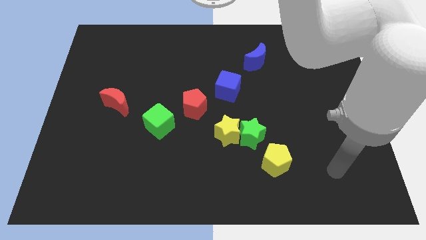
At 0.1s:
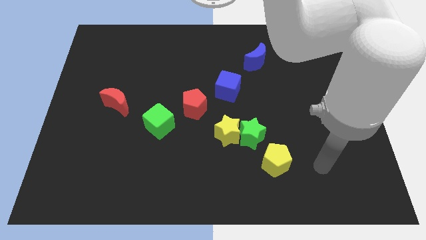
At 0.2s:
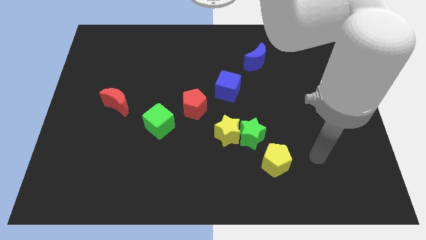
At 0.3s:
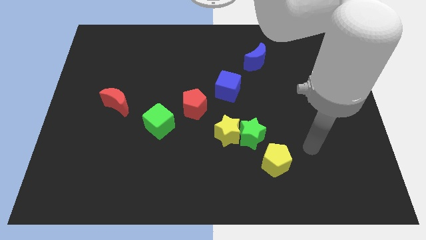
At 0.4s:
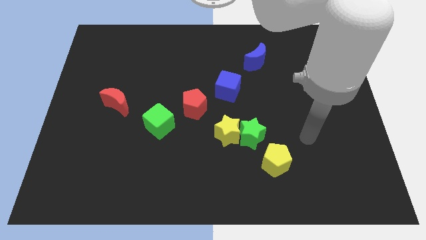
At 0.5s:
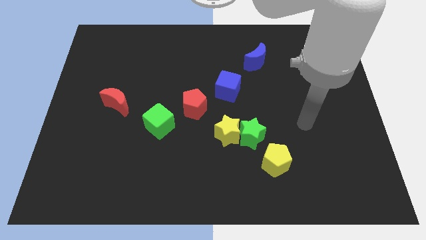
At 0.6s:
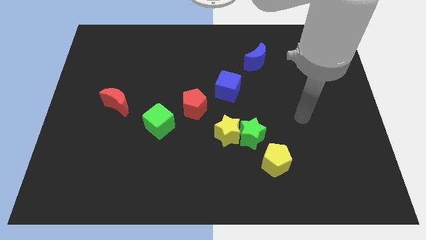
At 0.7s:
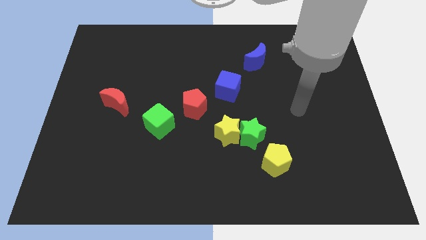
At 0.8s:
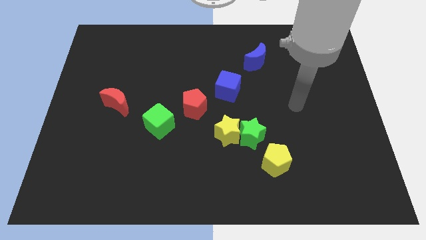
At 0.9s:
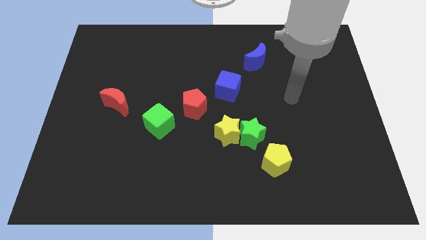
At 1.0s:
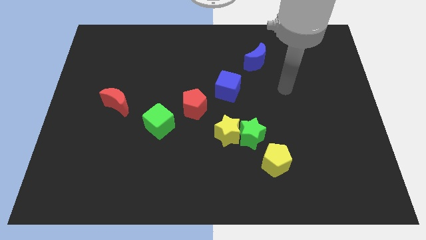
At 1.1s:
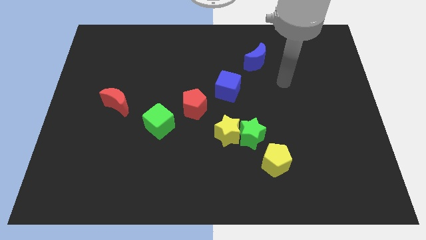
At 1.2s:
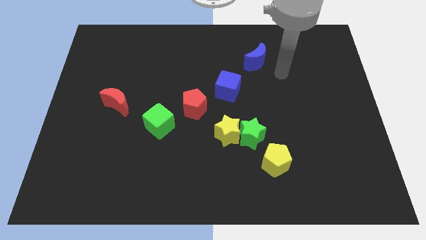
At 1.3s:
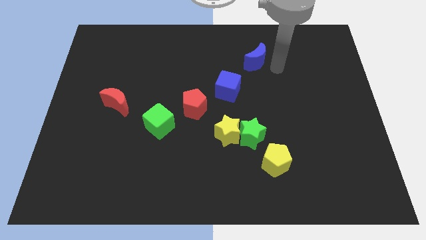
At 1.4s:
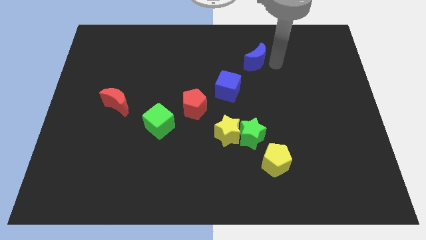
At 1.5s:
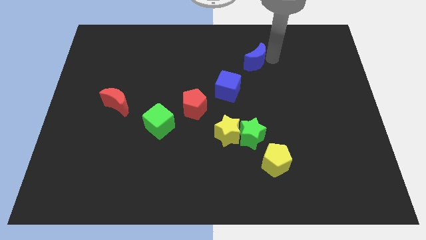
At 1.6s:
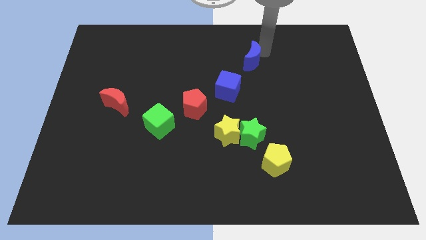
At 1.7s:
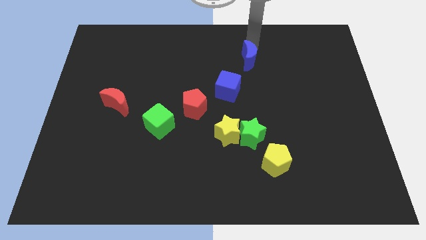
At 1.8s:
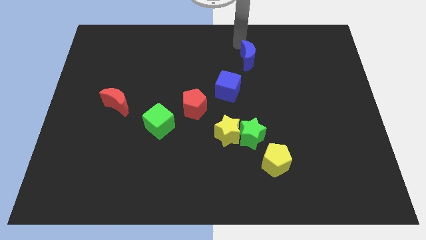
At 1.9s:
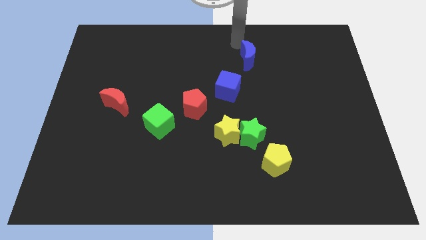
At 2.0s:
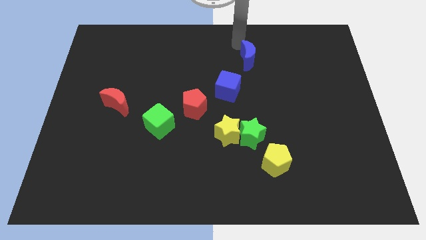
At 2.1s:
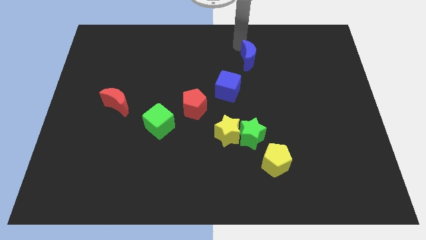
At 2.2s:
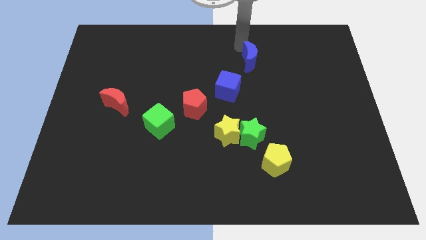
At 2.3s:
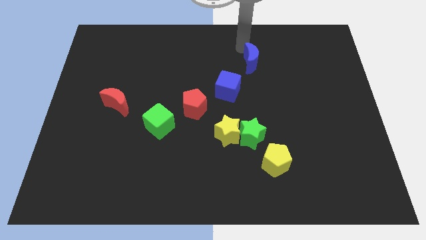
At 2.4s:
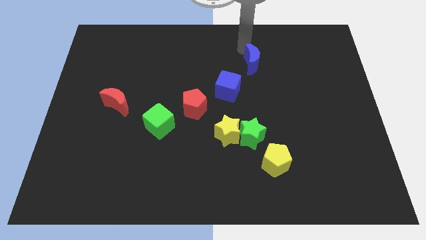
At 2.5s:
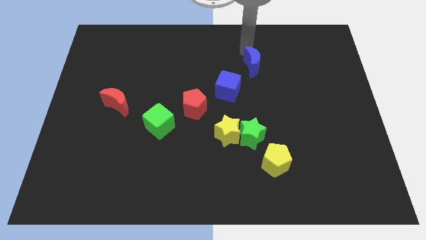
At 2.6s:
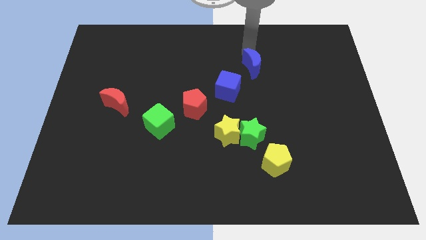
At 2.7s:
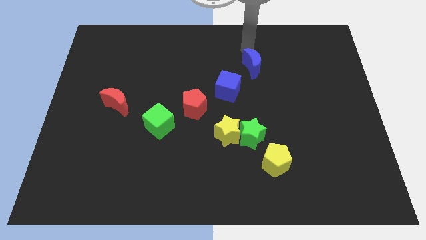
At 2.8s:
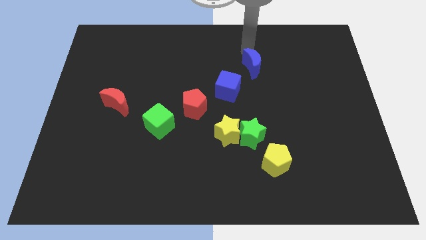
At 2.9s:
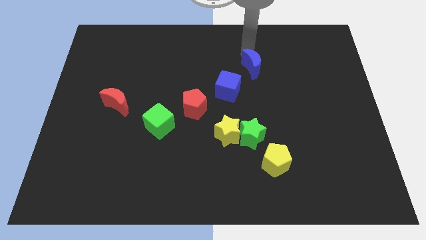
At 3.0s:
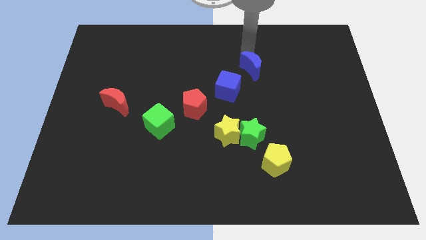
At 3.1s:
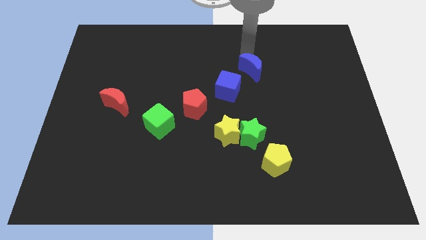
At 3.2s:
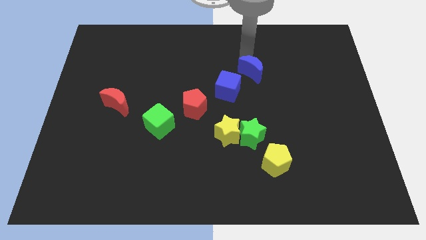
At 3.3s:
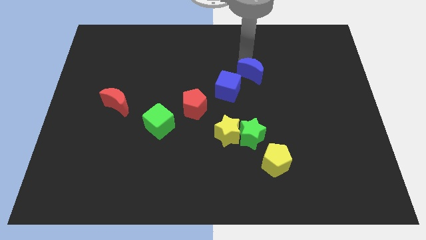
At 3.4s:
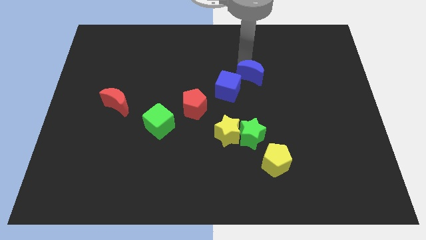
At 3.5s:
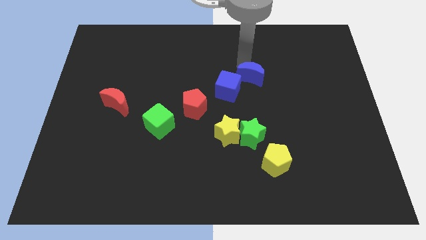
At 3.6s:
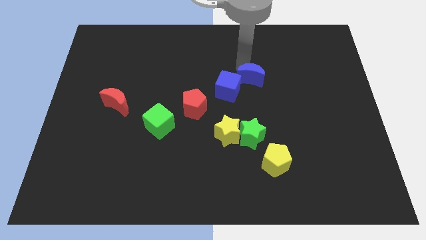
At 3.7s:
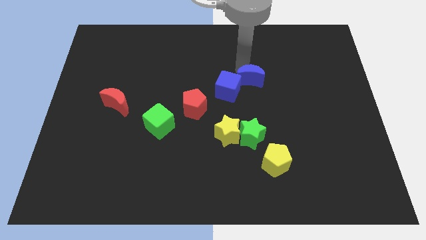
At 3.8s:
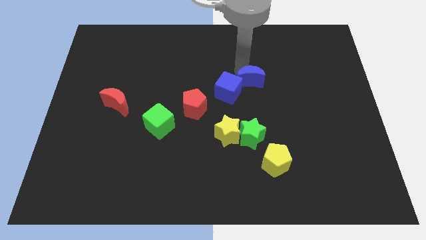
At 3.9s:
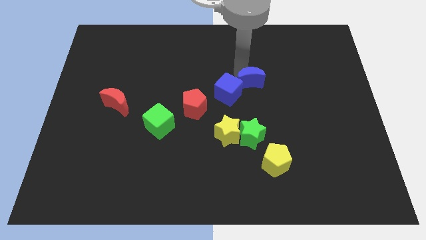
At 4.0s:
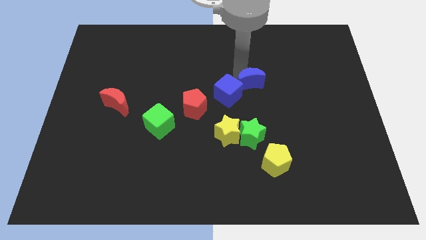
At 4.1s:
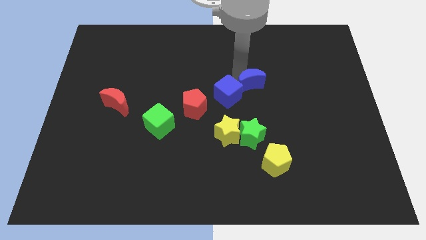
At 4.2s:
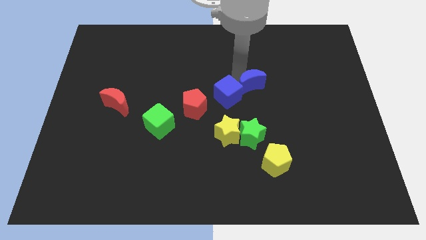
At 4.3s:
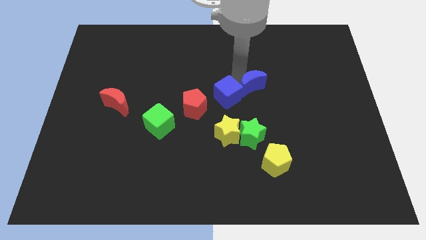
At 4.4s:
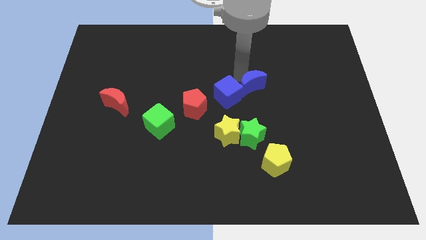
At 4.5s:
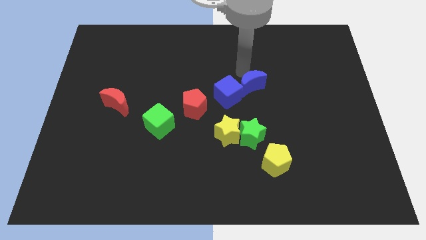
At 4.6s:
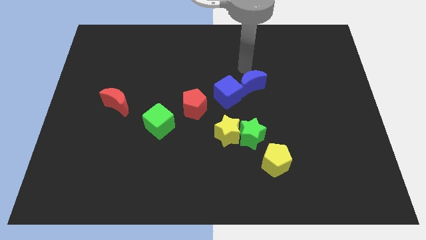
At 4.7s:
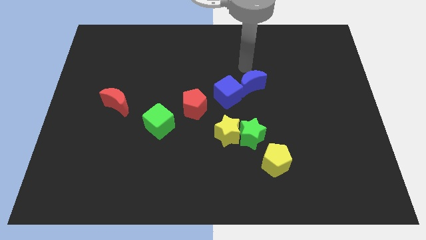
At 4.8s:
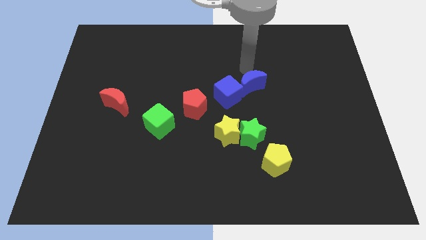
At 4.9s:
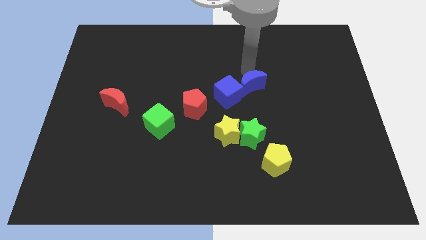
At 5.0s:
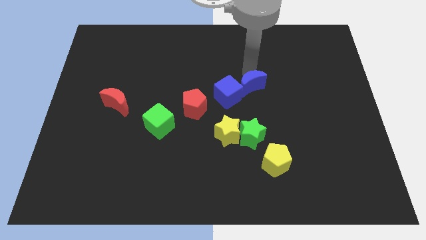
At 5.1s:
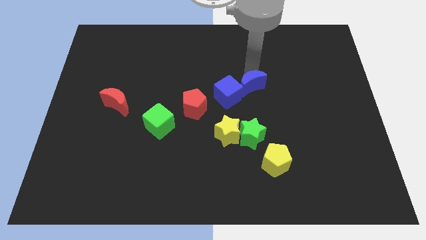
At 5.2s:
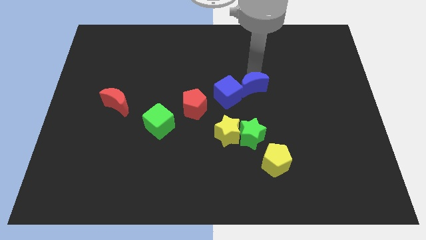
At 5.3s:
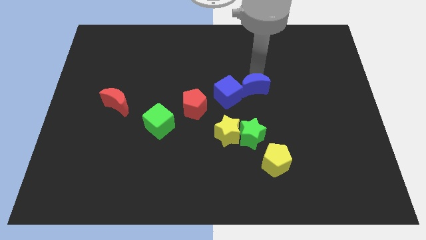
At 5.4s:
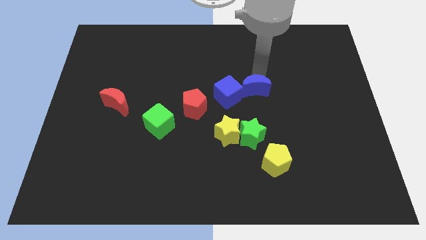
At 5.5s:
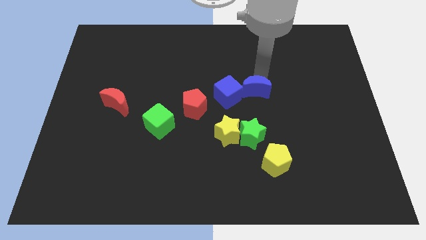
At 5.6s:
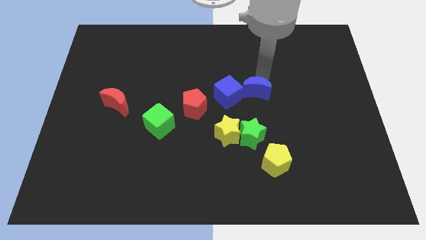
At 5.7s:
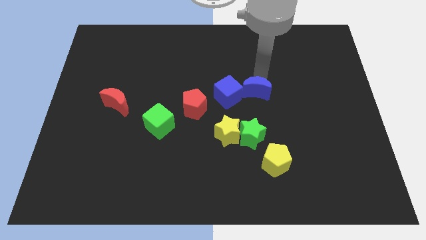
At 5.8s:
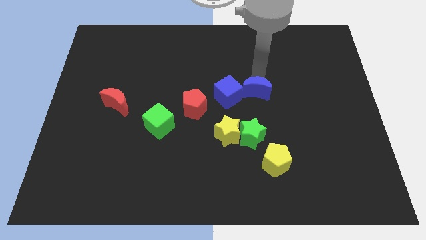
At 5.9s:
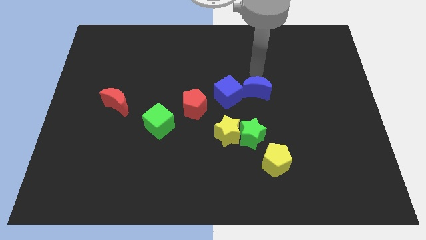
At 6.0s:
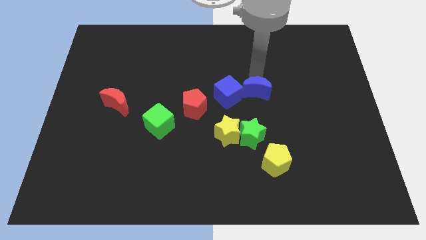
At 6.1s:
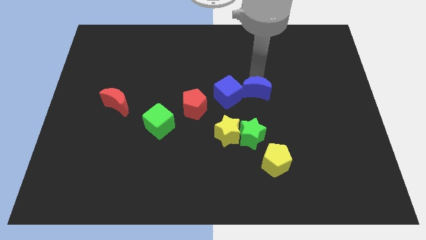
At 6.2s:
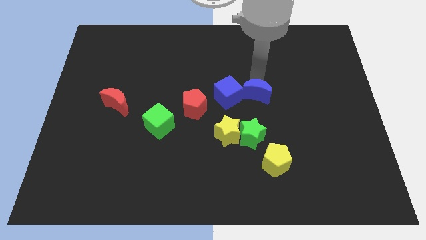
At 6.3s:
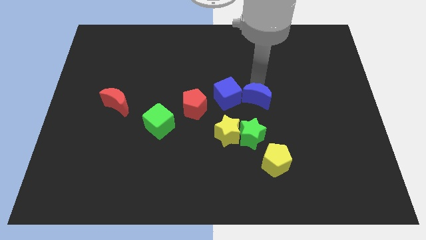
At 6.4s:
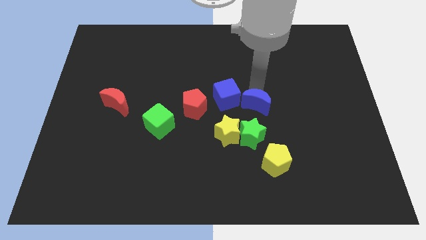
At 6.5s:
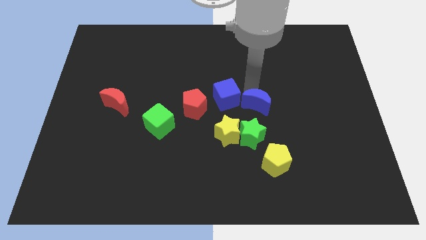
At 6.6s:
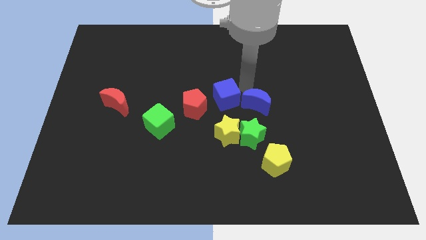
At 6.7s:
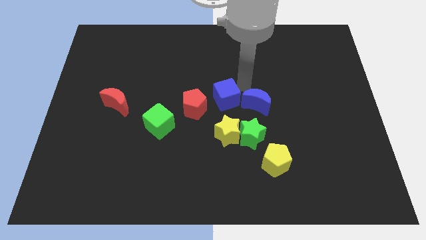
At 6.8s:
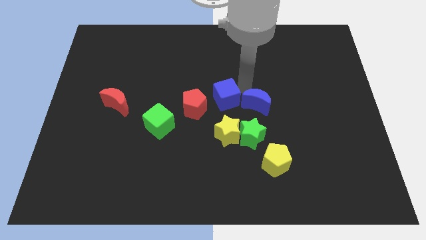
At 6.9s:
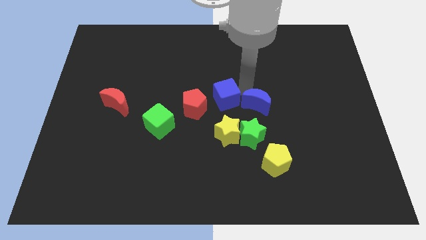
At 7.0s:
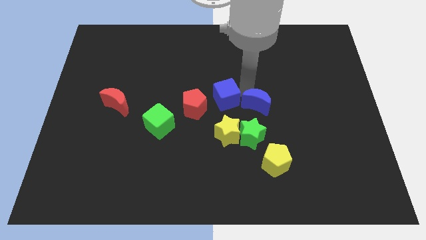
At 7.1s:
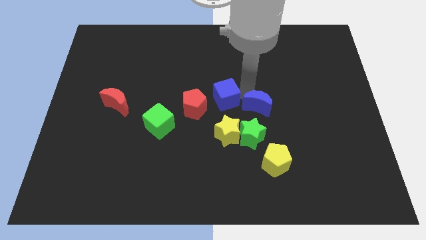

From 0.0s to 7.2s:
move the blue moon to the top side of the yellow pentagon
